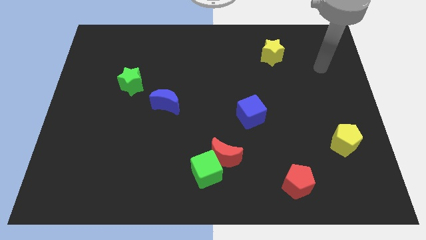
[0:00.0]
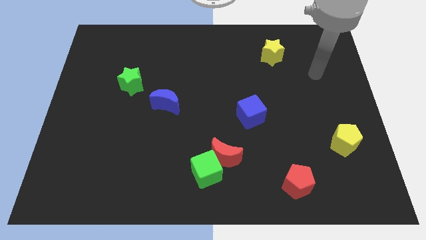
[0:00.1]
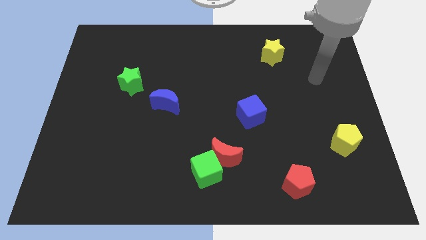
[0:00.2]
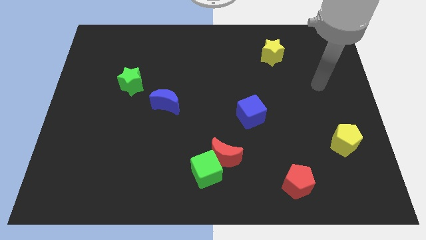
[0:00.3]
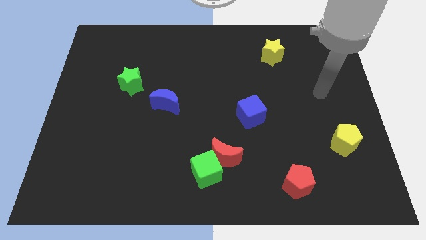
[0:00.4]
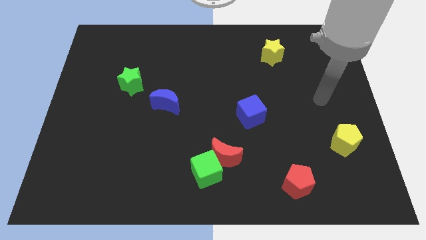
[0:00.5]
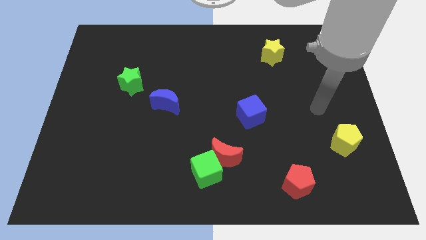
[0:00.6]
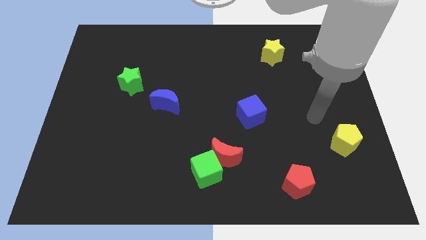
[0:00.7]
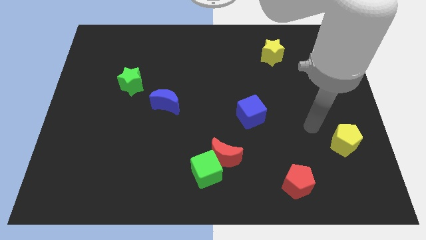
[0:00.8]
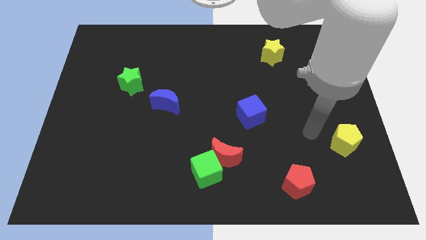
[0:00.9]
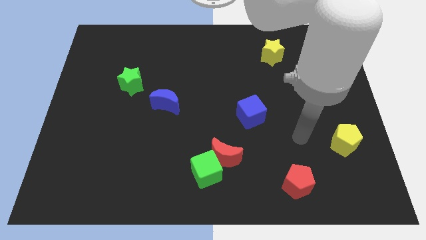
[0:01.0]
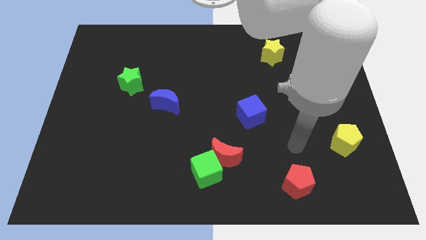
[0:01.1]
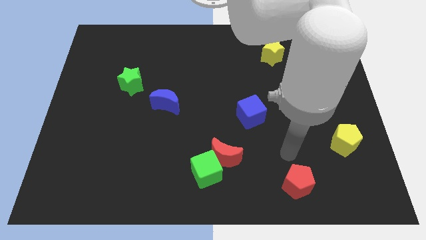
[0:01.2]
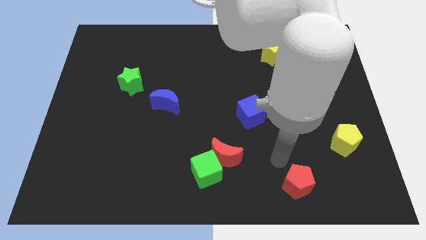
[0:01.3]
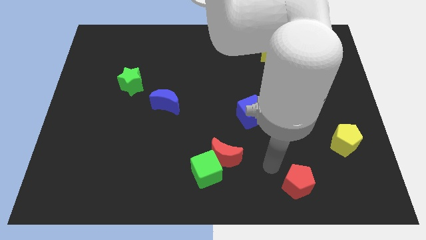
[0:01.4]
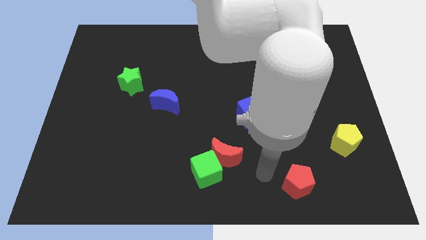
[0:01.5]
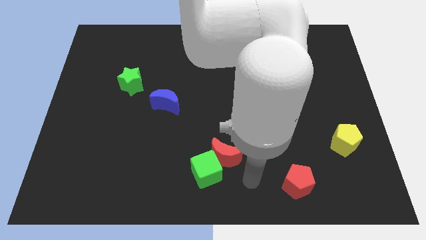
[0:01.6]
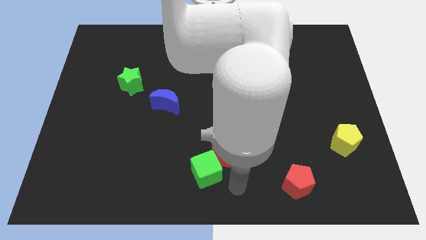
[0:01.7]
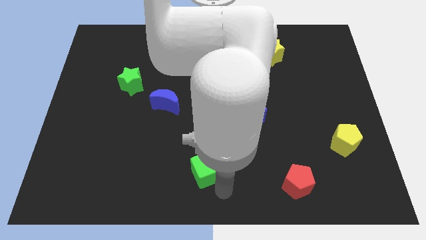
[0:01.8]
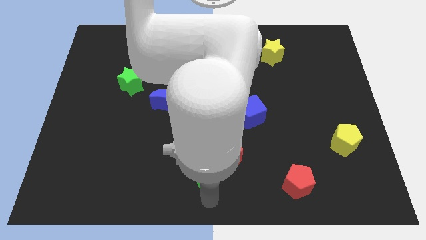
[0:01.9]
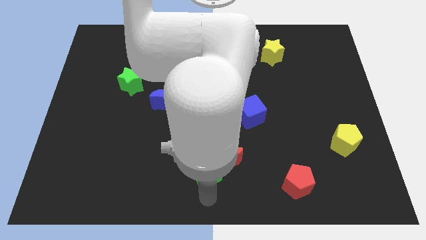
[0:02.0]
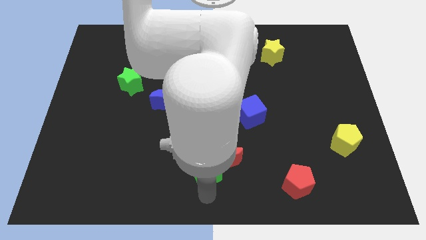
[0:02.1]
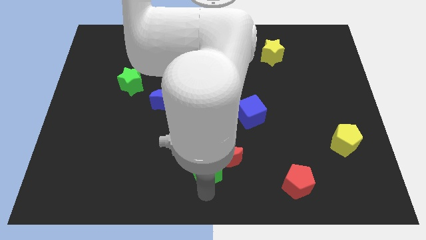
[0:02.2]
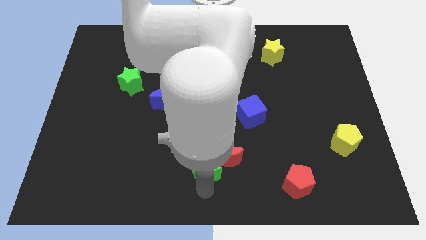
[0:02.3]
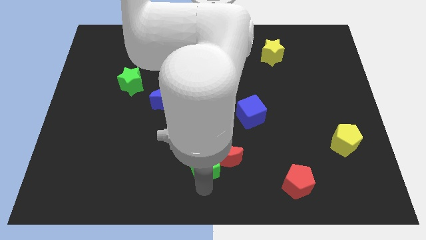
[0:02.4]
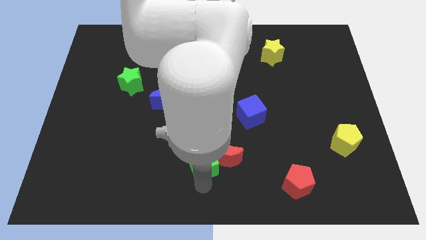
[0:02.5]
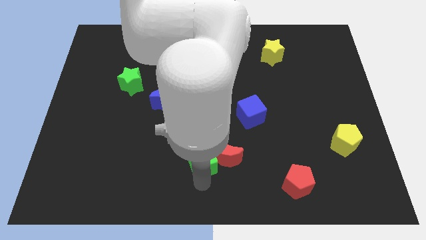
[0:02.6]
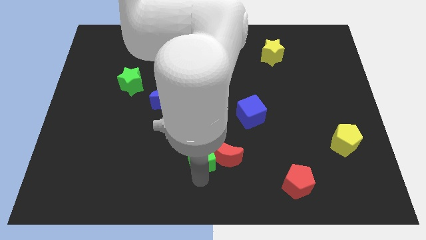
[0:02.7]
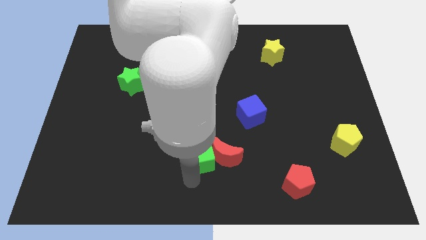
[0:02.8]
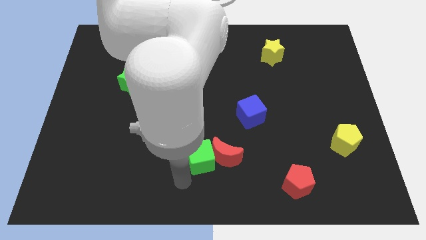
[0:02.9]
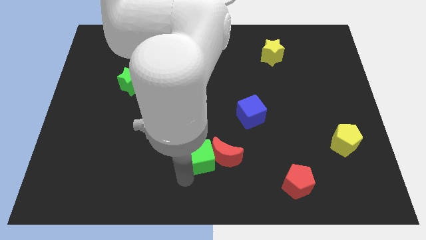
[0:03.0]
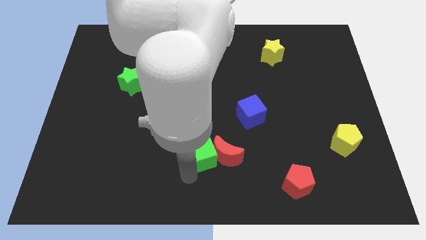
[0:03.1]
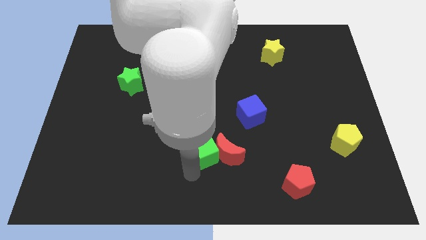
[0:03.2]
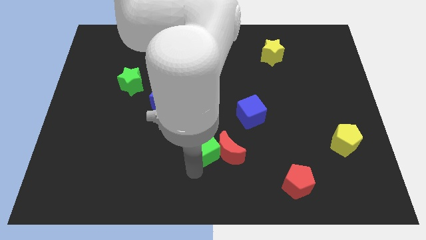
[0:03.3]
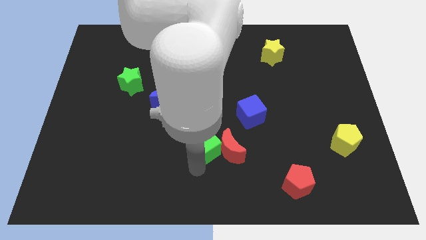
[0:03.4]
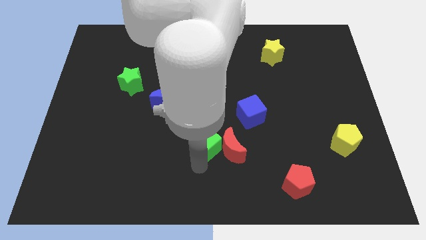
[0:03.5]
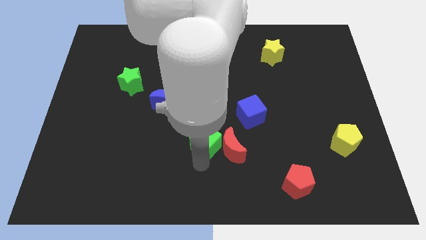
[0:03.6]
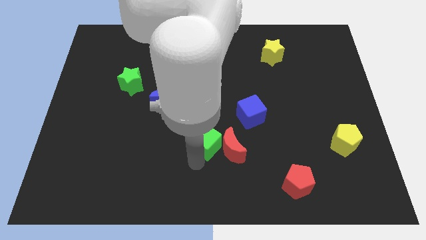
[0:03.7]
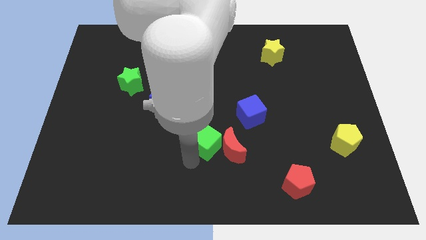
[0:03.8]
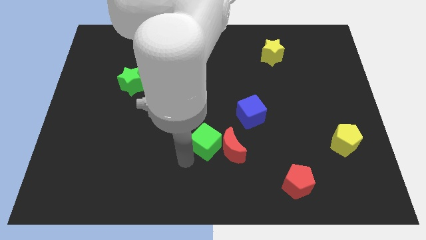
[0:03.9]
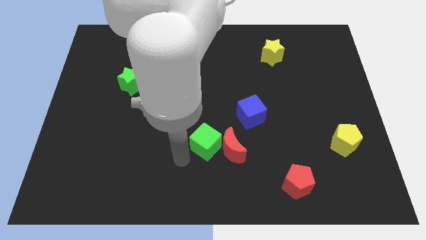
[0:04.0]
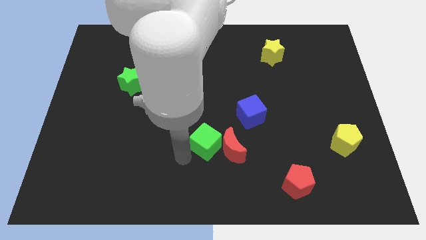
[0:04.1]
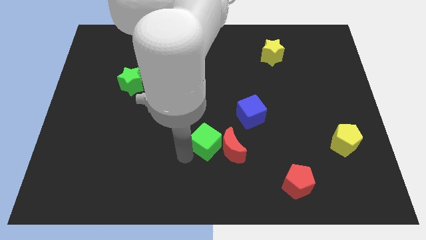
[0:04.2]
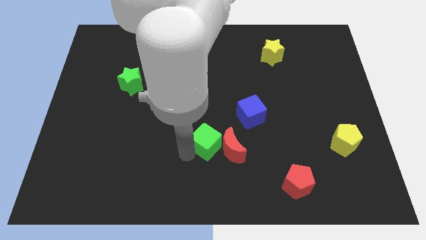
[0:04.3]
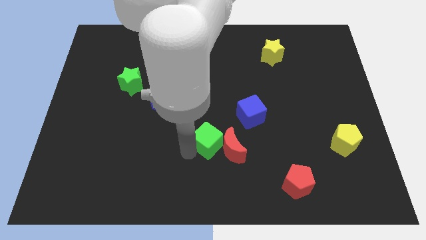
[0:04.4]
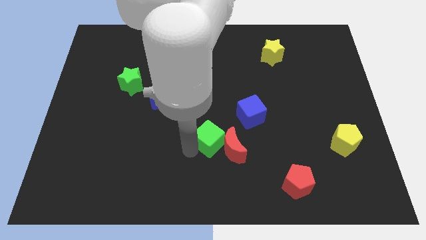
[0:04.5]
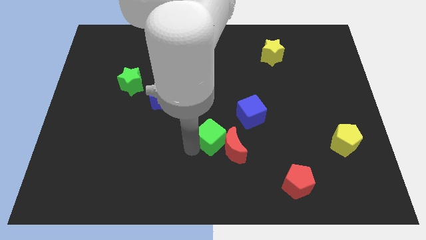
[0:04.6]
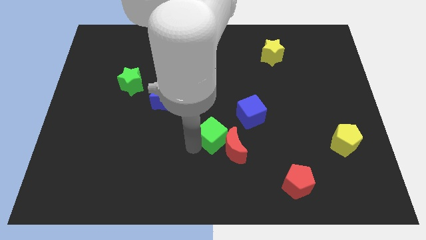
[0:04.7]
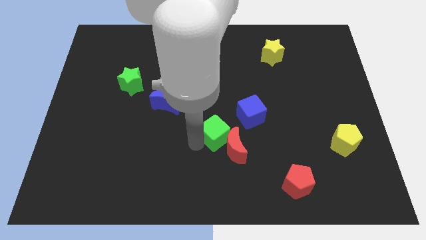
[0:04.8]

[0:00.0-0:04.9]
put the green cube to the top side of the red moon

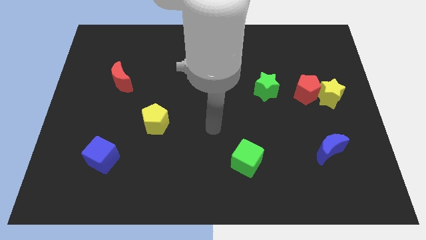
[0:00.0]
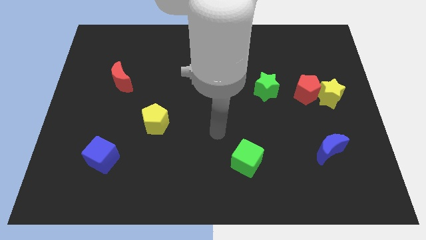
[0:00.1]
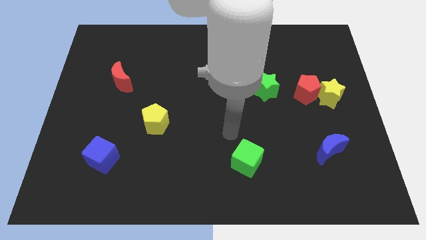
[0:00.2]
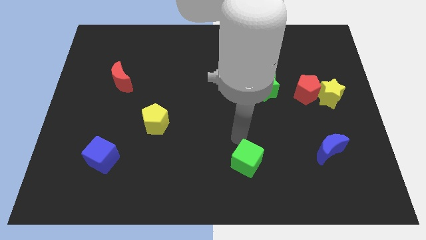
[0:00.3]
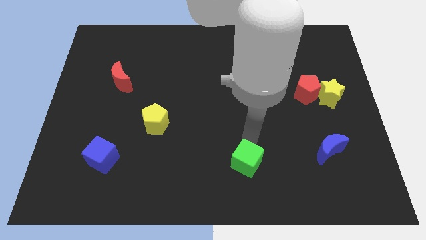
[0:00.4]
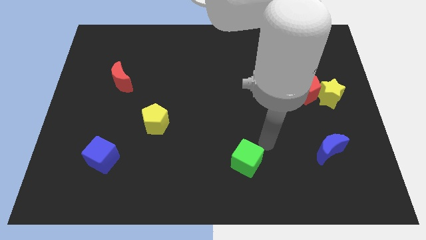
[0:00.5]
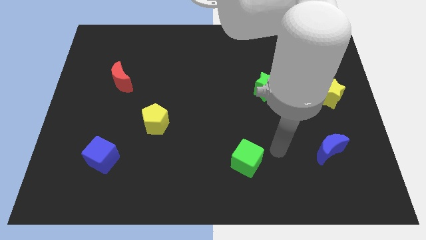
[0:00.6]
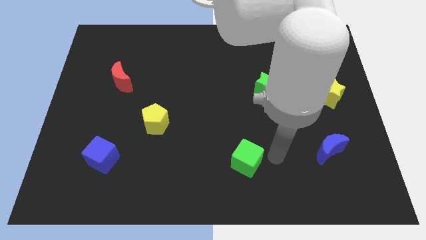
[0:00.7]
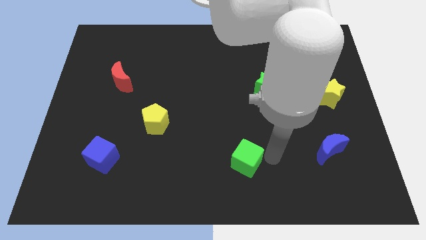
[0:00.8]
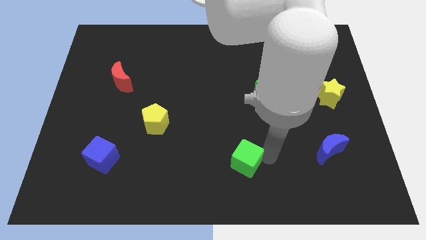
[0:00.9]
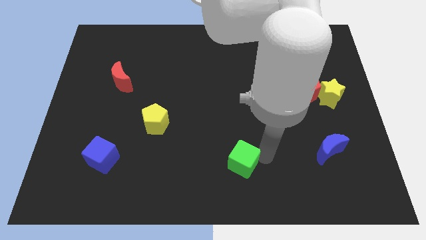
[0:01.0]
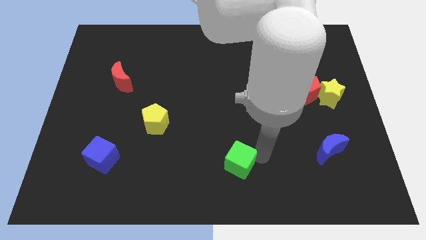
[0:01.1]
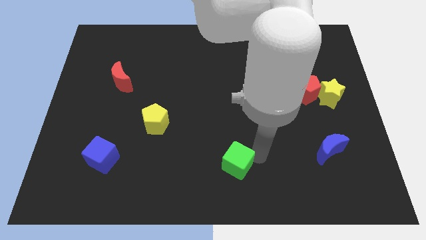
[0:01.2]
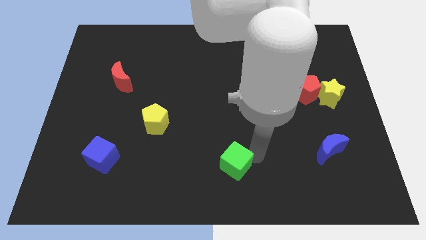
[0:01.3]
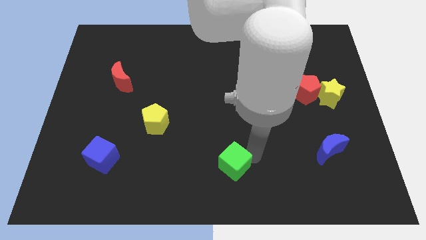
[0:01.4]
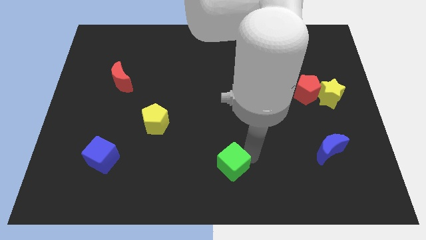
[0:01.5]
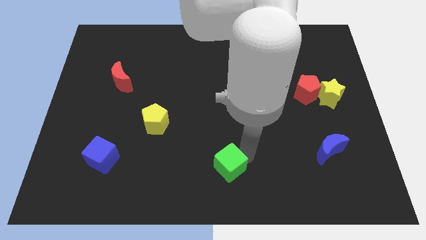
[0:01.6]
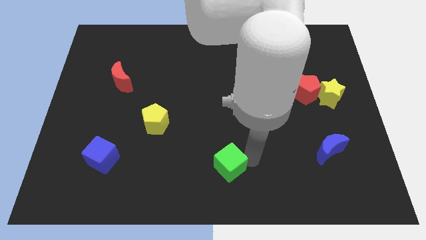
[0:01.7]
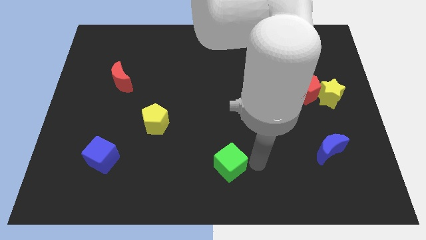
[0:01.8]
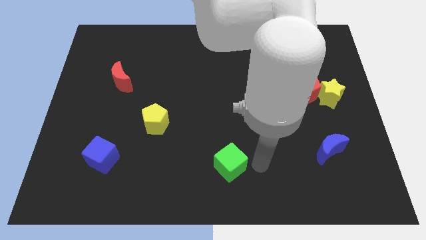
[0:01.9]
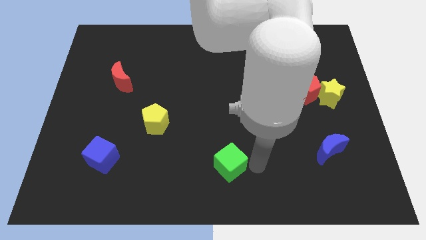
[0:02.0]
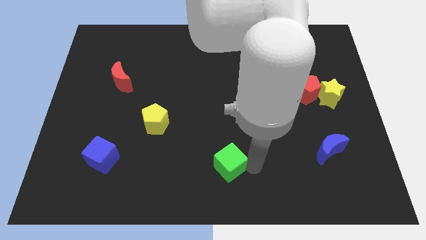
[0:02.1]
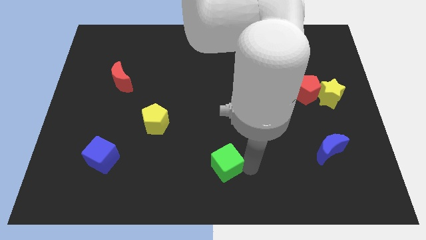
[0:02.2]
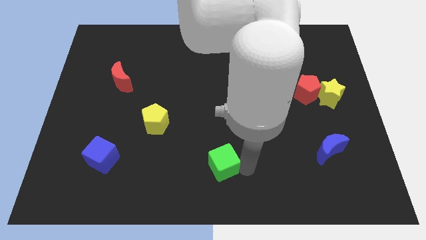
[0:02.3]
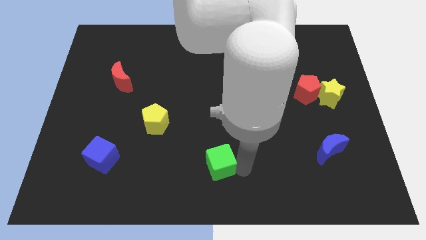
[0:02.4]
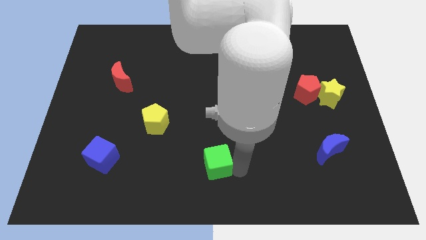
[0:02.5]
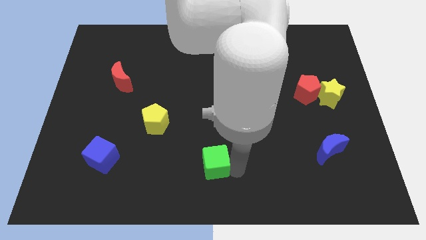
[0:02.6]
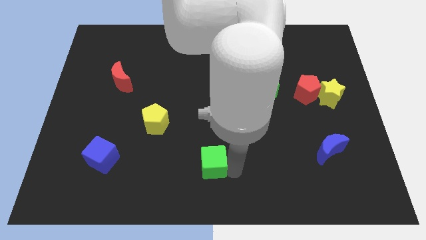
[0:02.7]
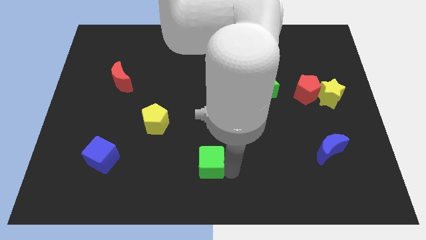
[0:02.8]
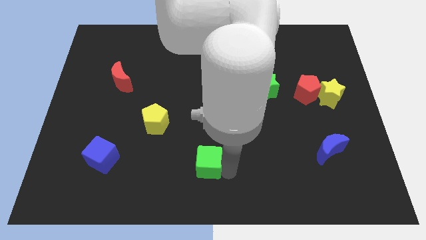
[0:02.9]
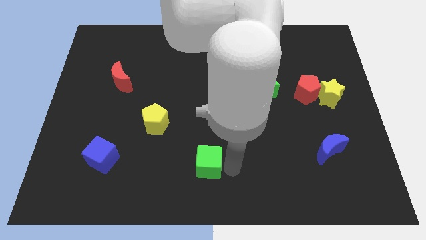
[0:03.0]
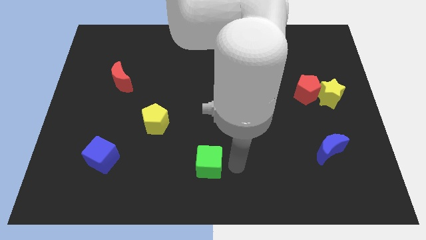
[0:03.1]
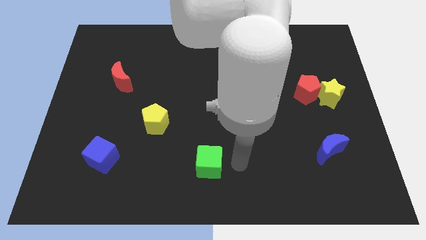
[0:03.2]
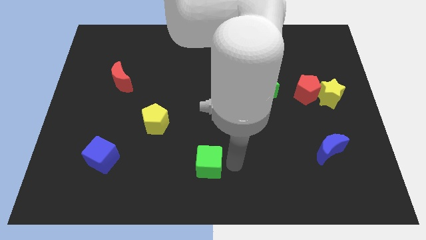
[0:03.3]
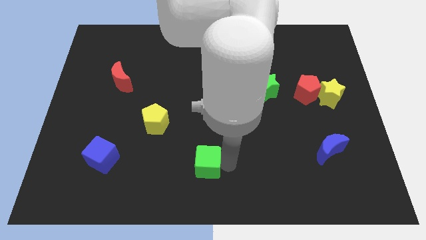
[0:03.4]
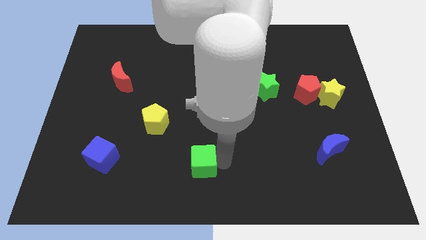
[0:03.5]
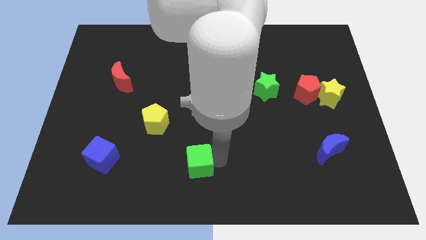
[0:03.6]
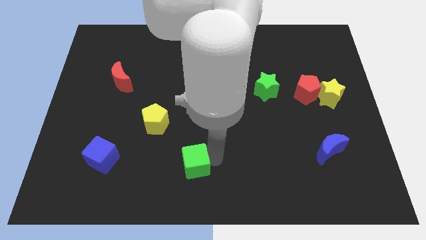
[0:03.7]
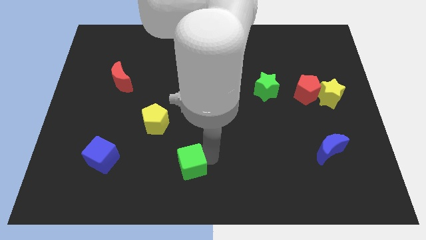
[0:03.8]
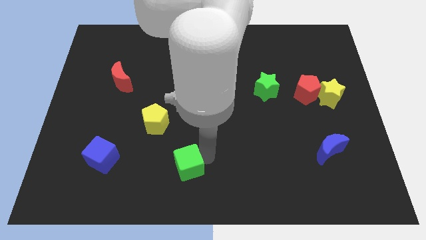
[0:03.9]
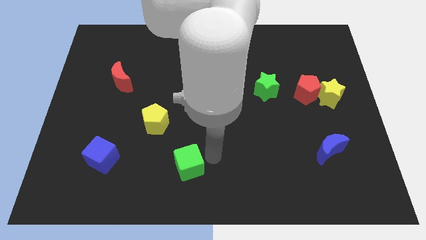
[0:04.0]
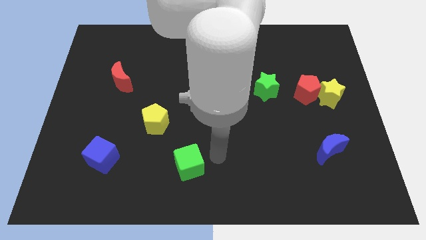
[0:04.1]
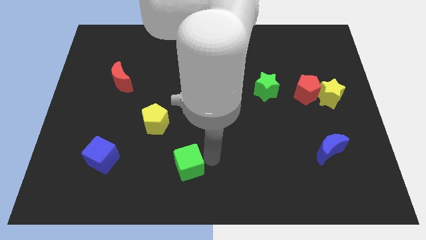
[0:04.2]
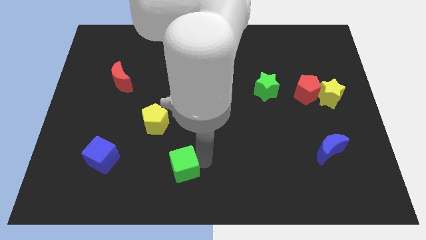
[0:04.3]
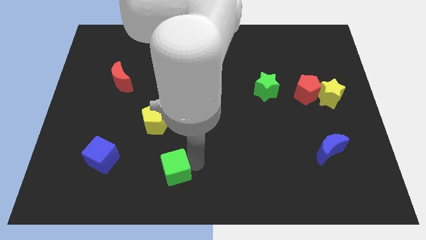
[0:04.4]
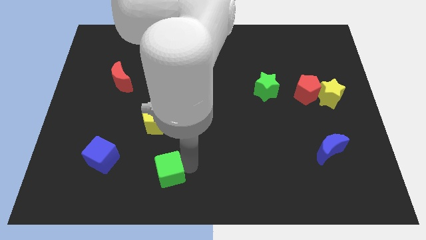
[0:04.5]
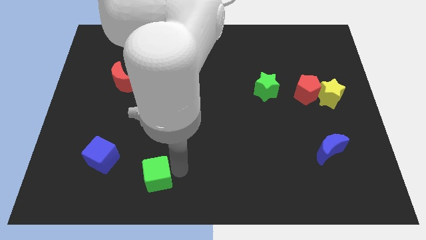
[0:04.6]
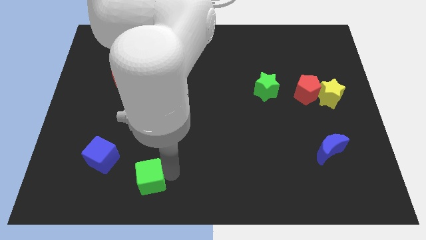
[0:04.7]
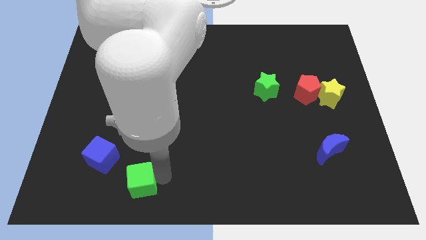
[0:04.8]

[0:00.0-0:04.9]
slide the green cube to the bottom right side of the blue cube
